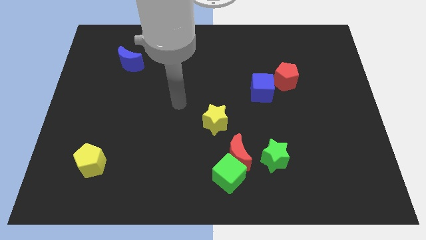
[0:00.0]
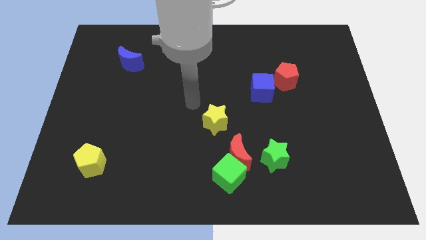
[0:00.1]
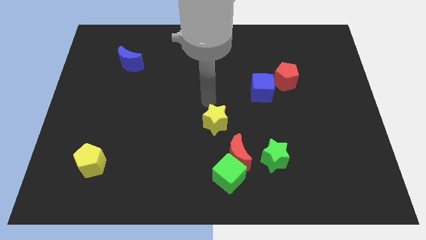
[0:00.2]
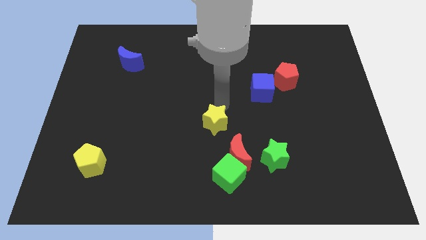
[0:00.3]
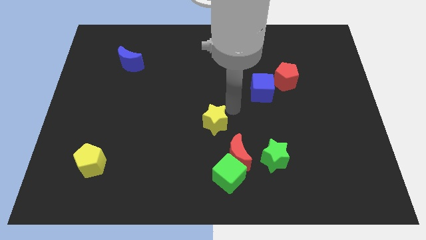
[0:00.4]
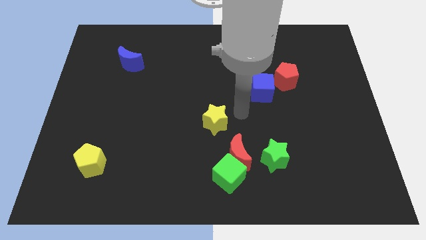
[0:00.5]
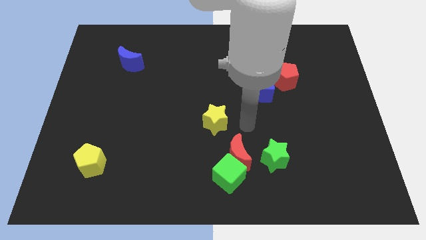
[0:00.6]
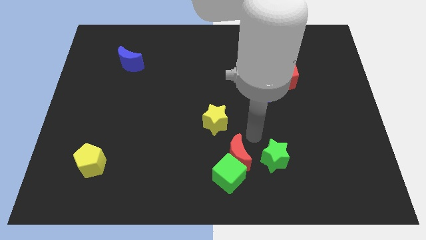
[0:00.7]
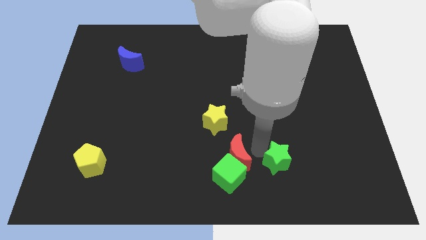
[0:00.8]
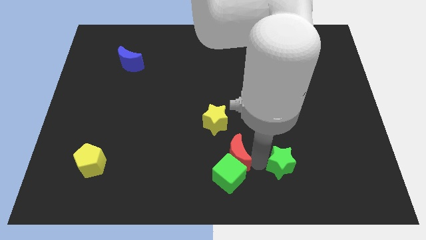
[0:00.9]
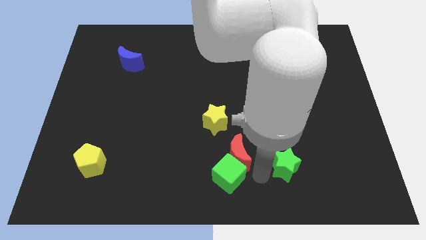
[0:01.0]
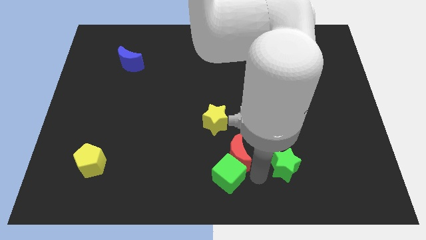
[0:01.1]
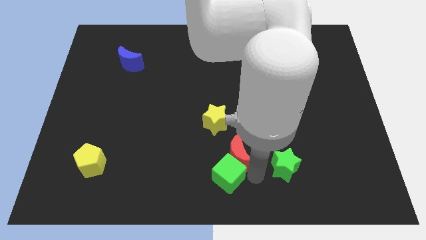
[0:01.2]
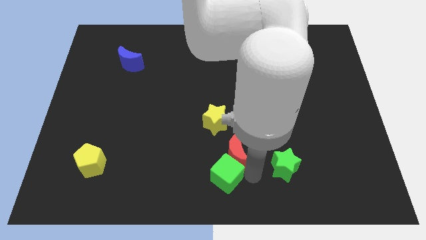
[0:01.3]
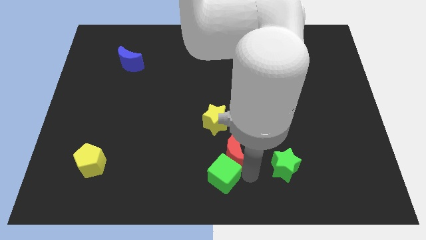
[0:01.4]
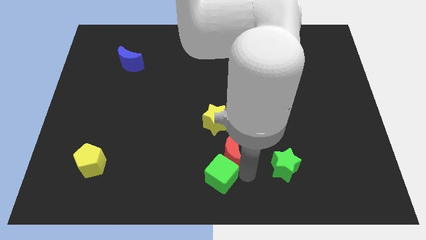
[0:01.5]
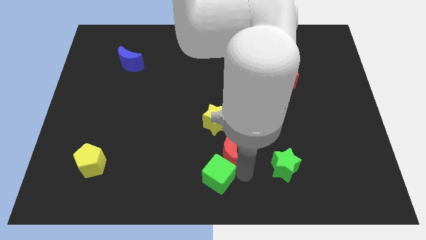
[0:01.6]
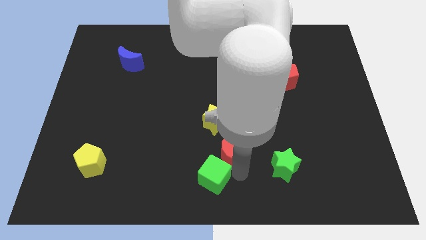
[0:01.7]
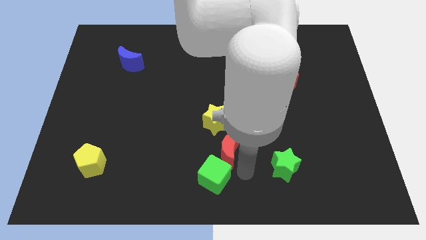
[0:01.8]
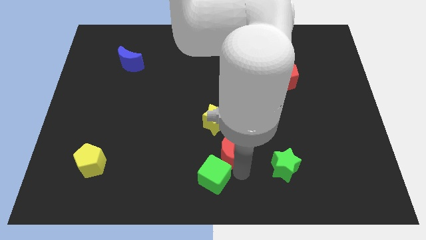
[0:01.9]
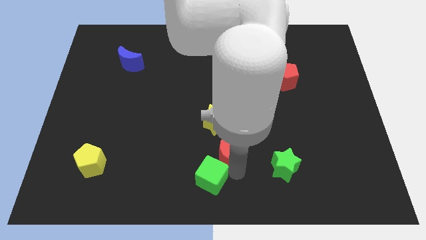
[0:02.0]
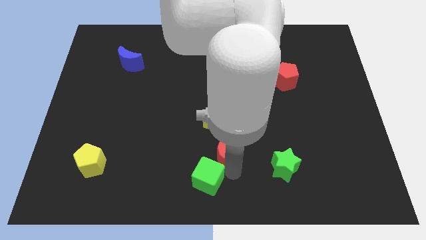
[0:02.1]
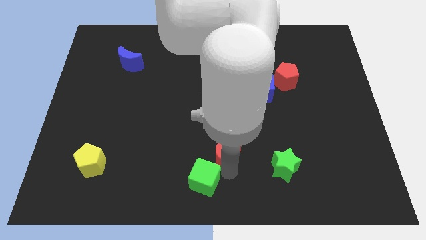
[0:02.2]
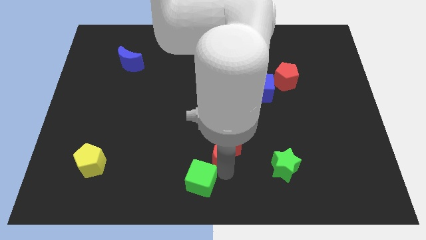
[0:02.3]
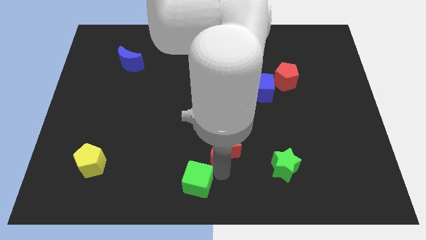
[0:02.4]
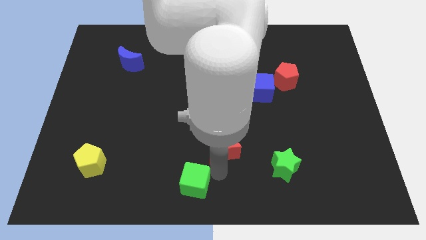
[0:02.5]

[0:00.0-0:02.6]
slide the green cube a bit to the left

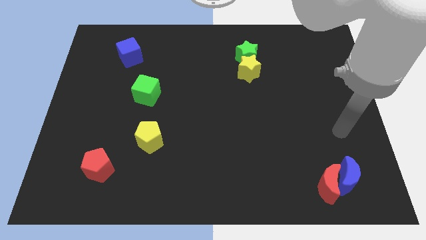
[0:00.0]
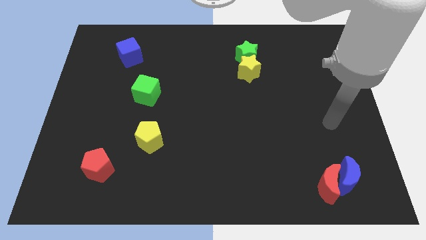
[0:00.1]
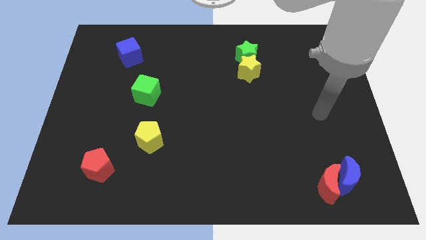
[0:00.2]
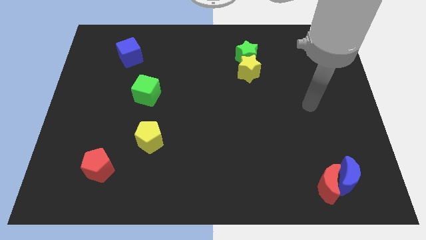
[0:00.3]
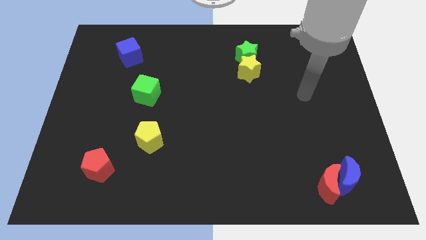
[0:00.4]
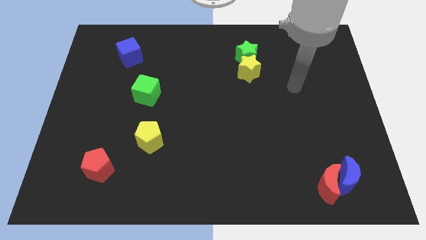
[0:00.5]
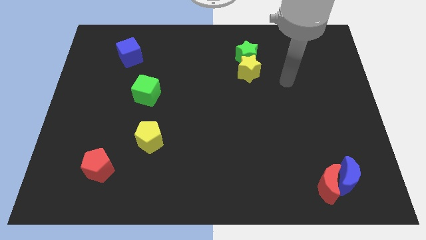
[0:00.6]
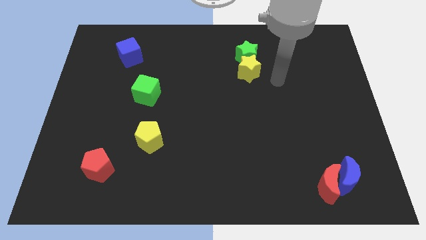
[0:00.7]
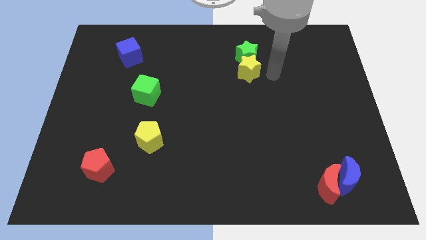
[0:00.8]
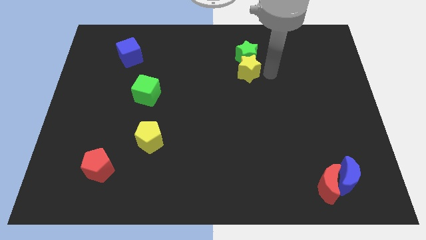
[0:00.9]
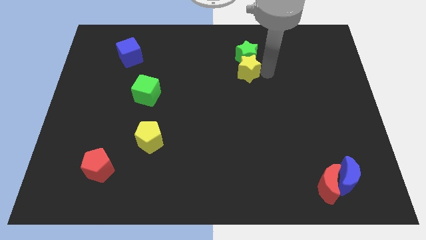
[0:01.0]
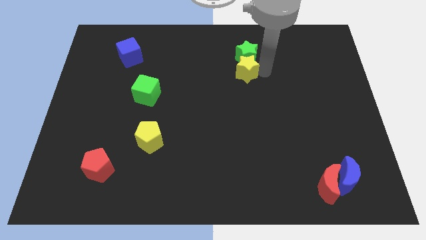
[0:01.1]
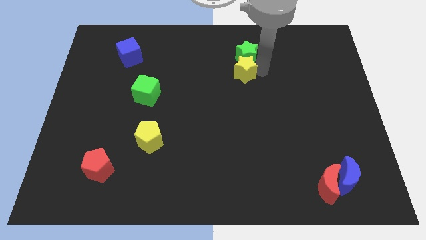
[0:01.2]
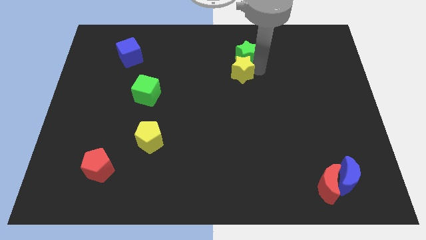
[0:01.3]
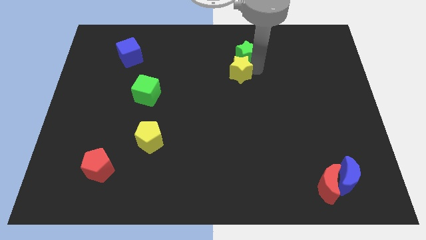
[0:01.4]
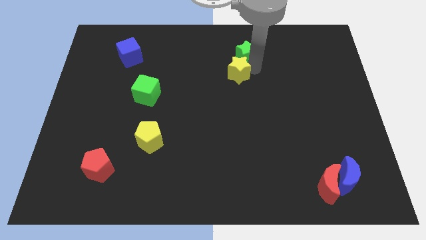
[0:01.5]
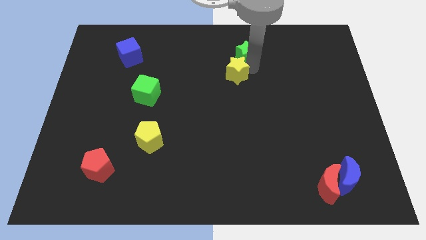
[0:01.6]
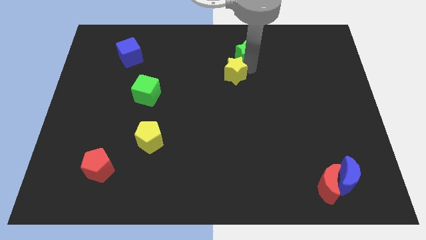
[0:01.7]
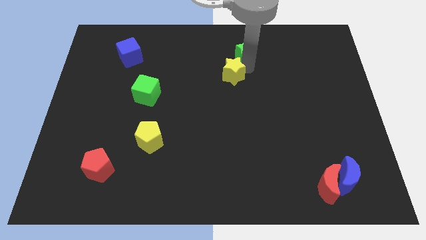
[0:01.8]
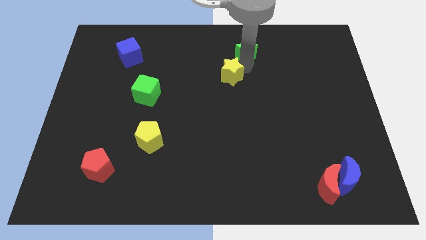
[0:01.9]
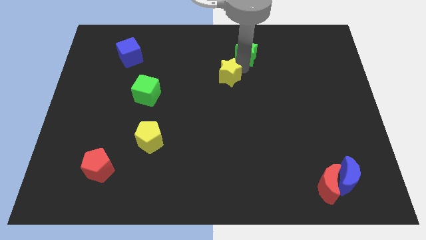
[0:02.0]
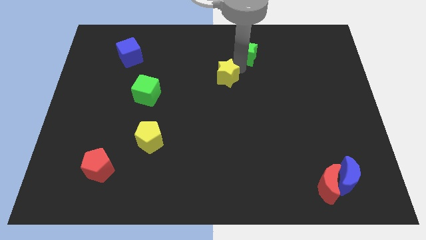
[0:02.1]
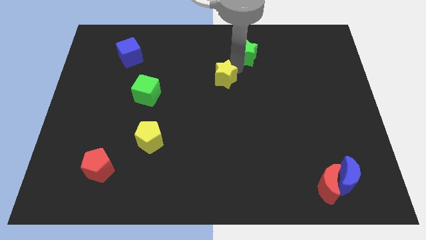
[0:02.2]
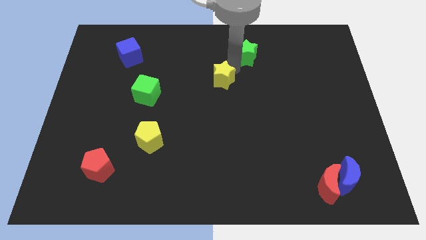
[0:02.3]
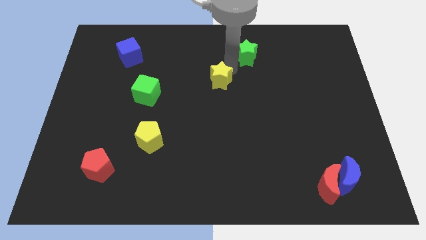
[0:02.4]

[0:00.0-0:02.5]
slide the yellow star left slightly

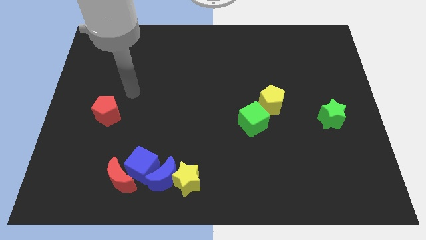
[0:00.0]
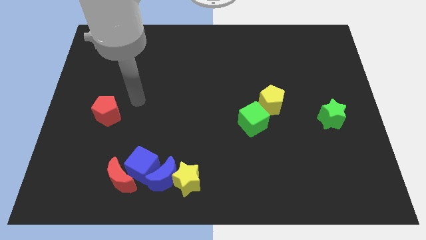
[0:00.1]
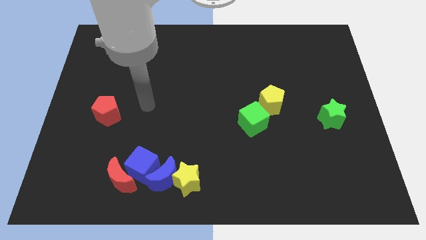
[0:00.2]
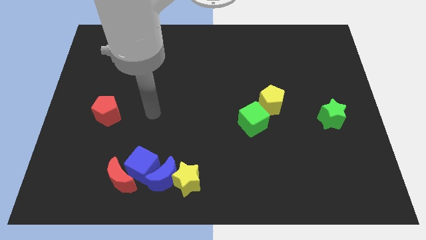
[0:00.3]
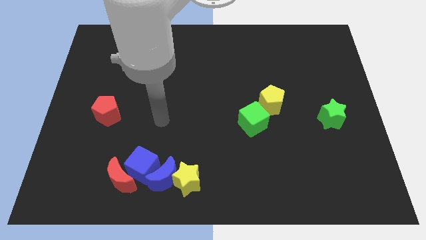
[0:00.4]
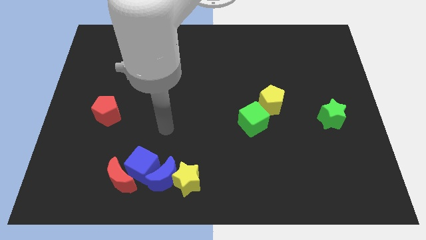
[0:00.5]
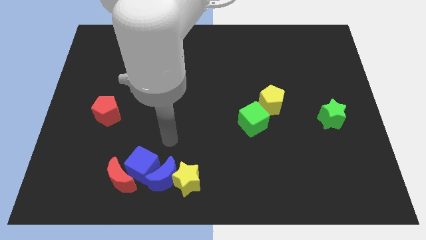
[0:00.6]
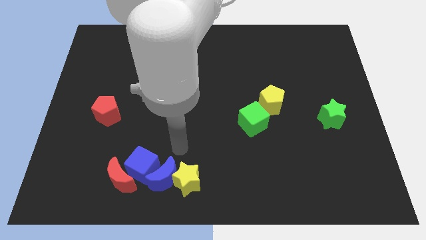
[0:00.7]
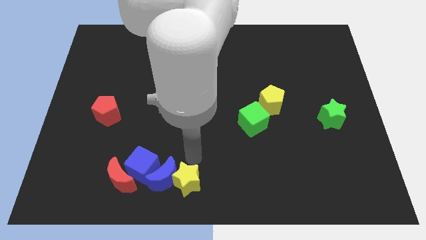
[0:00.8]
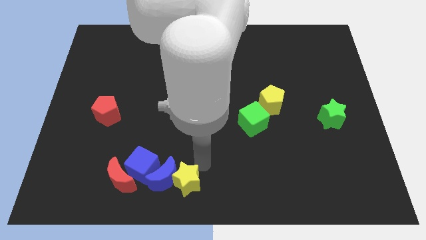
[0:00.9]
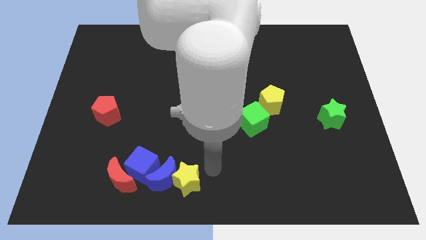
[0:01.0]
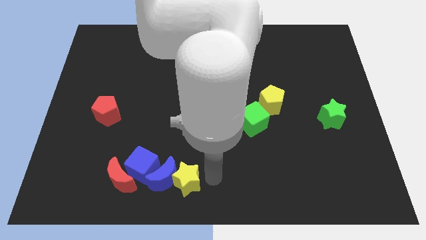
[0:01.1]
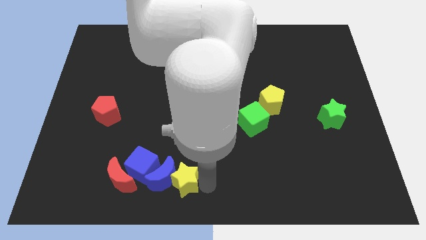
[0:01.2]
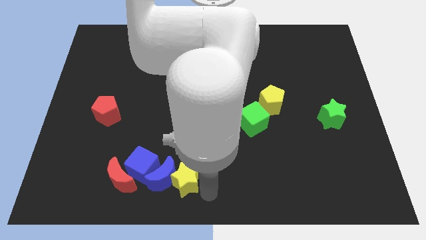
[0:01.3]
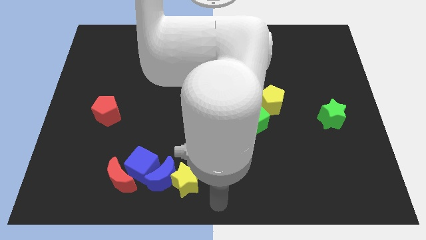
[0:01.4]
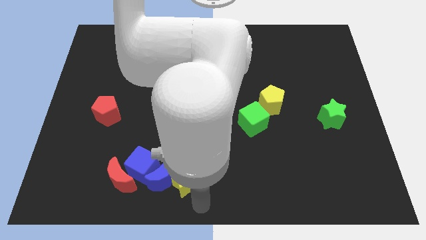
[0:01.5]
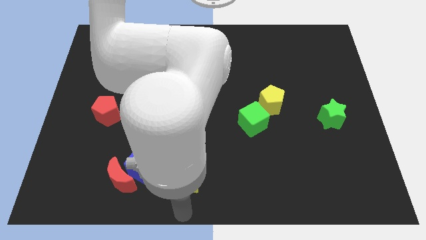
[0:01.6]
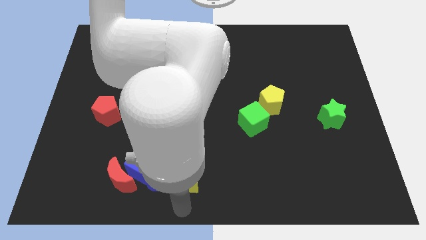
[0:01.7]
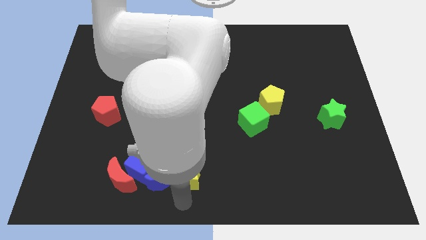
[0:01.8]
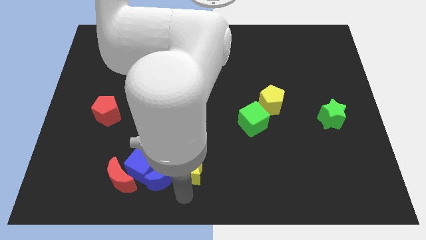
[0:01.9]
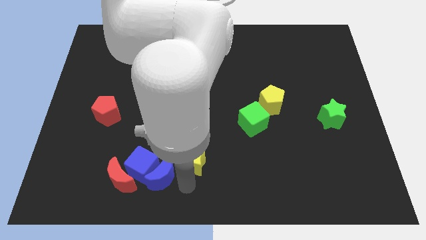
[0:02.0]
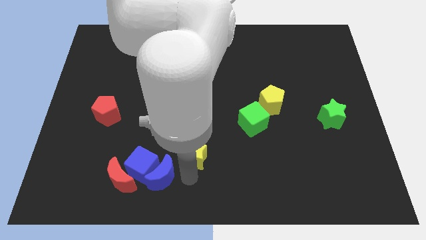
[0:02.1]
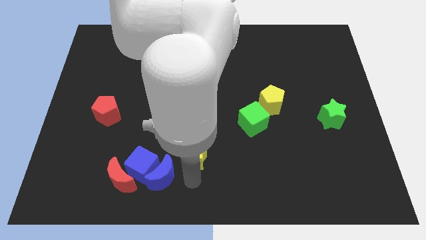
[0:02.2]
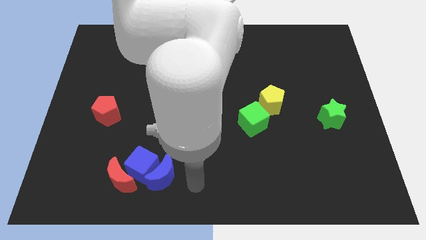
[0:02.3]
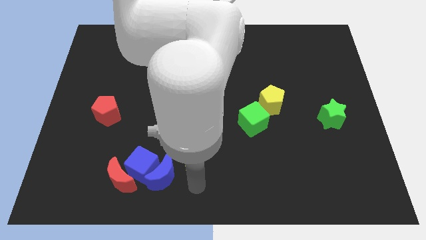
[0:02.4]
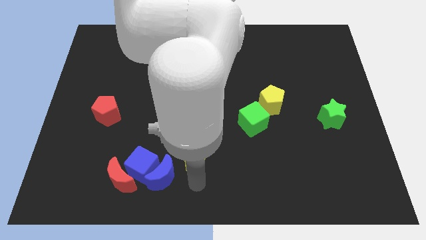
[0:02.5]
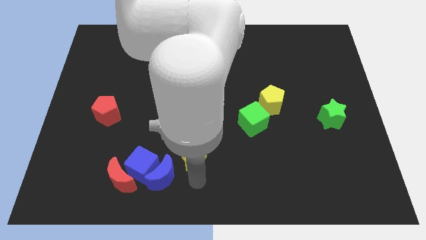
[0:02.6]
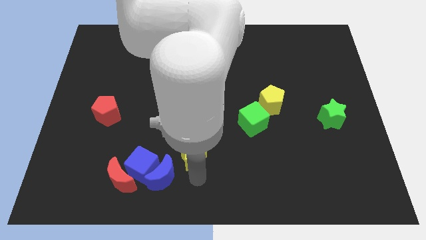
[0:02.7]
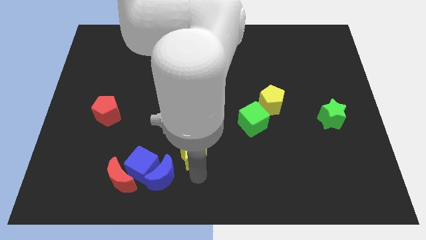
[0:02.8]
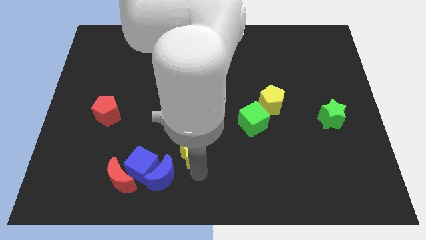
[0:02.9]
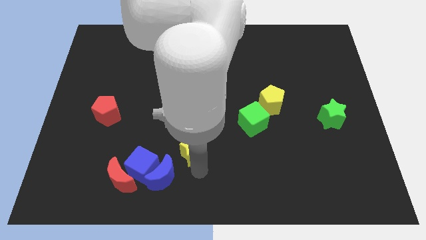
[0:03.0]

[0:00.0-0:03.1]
push the yellow star a little upwards
